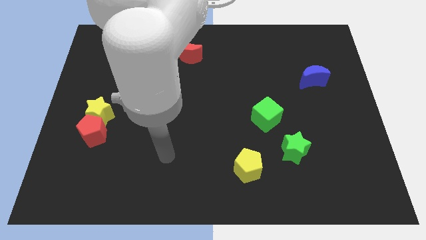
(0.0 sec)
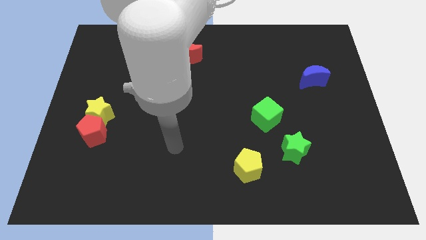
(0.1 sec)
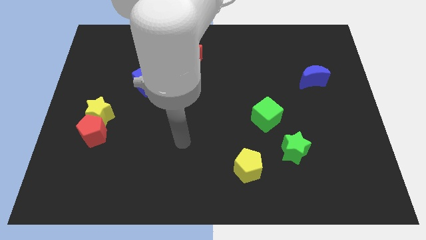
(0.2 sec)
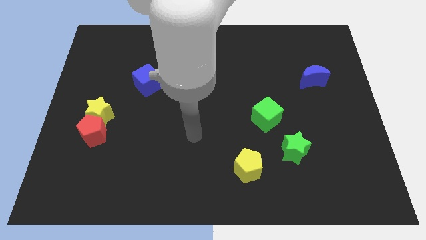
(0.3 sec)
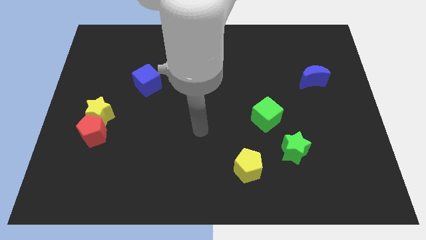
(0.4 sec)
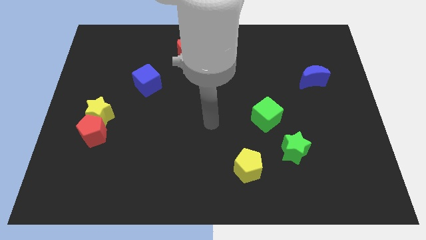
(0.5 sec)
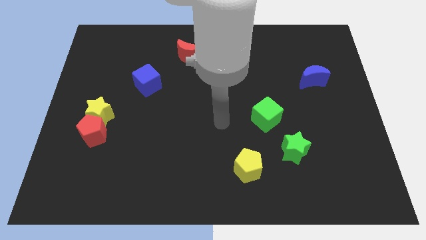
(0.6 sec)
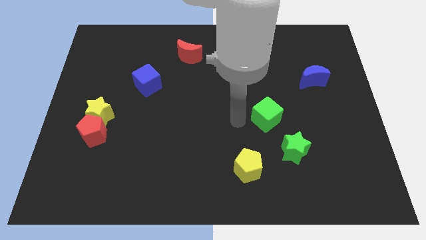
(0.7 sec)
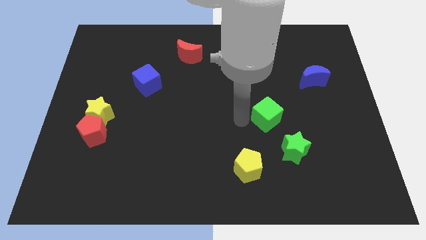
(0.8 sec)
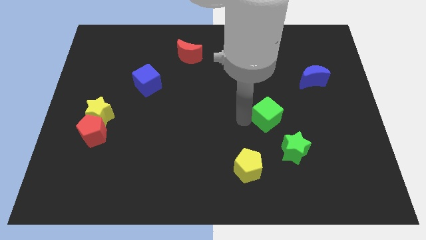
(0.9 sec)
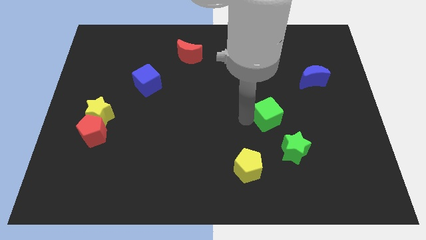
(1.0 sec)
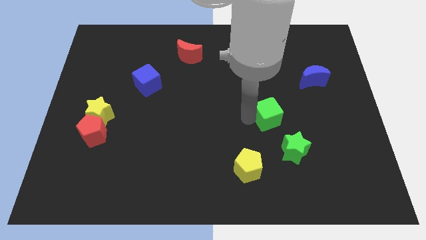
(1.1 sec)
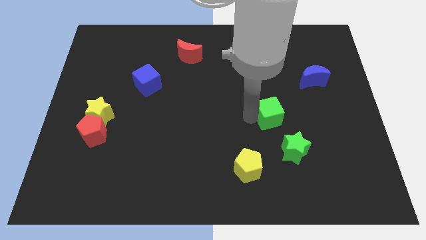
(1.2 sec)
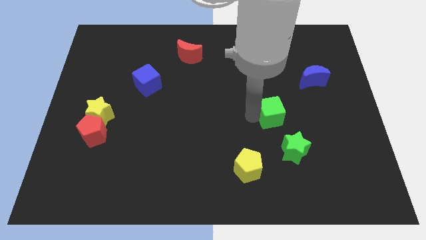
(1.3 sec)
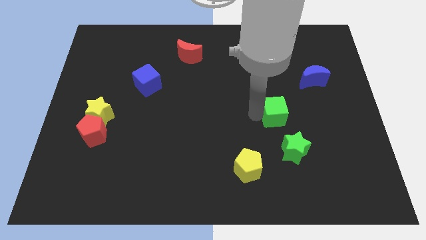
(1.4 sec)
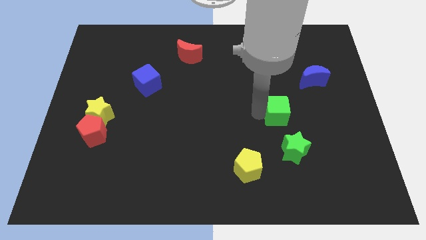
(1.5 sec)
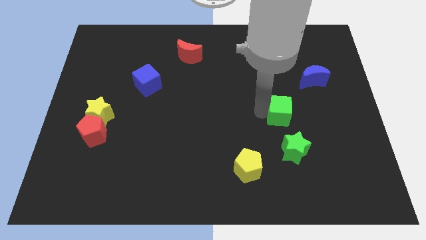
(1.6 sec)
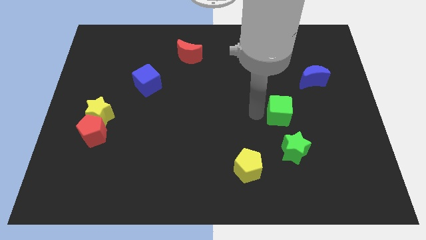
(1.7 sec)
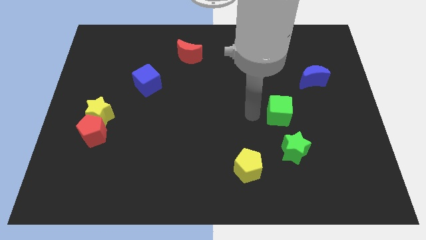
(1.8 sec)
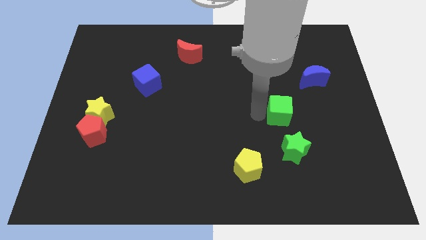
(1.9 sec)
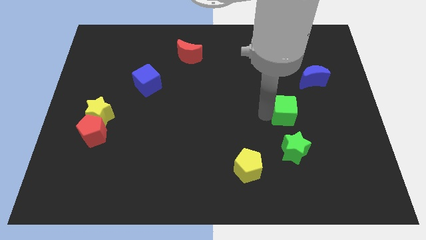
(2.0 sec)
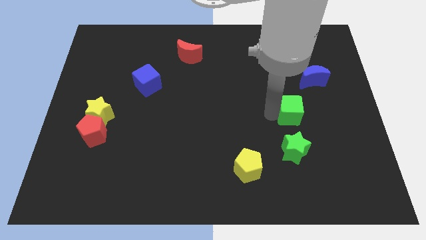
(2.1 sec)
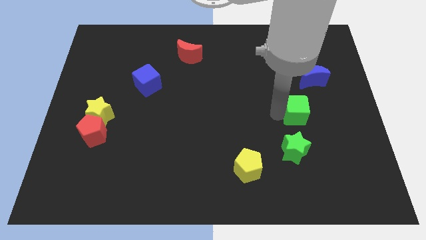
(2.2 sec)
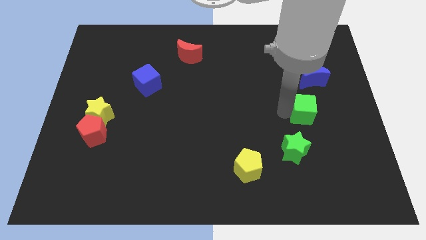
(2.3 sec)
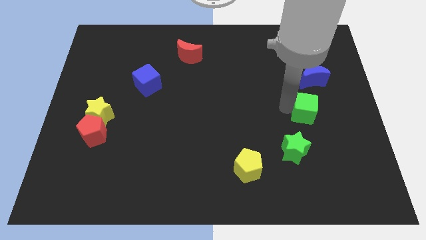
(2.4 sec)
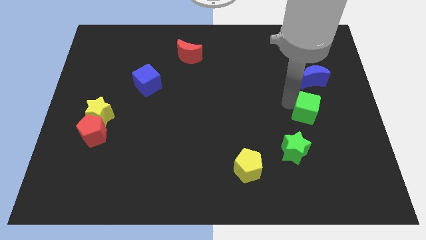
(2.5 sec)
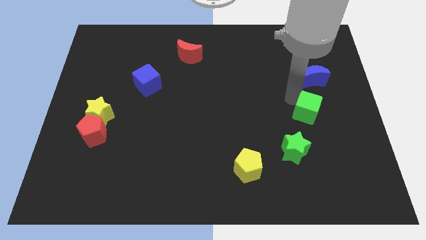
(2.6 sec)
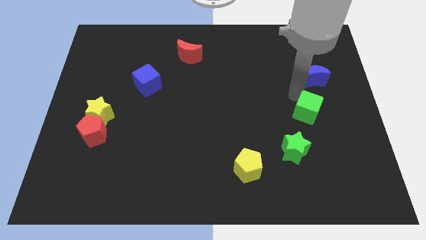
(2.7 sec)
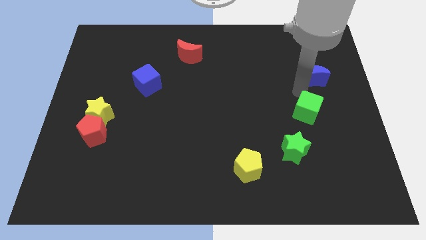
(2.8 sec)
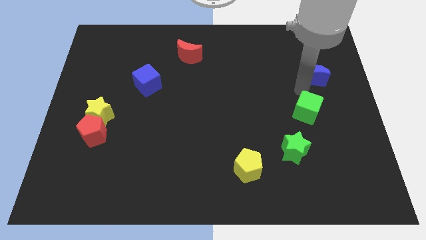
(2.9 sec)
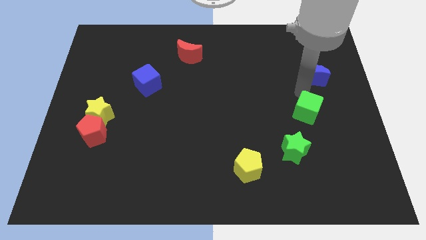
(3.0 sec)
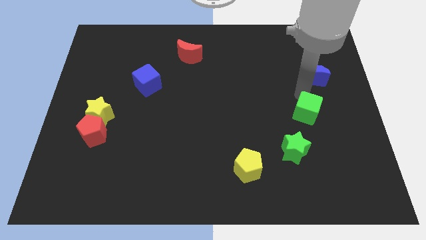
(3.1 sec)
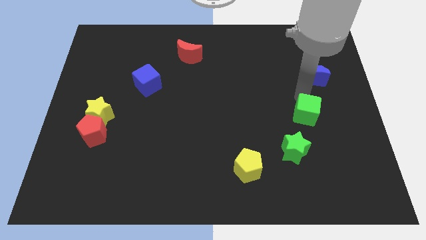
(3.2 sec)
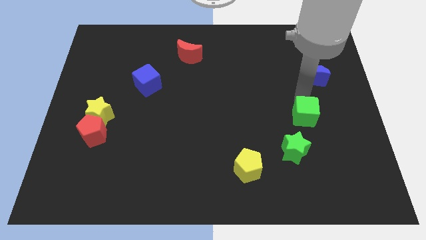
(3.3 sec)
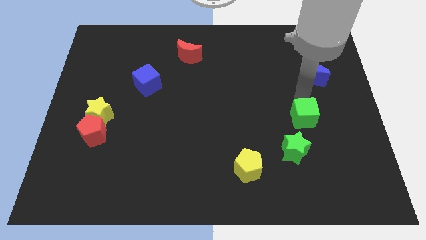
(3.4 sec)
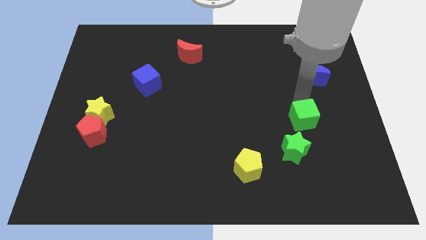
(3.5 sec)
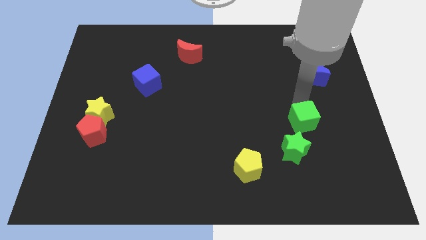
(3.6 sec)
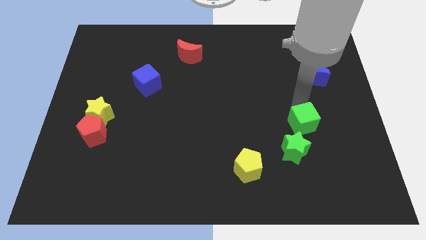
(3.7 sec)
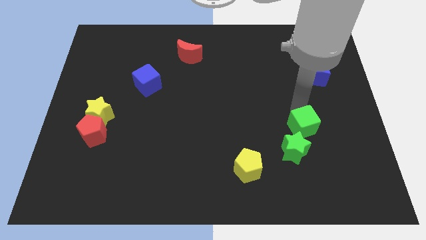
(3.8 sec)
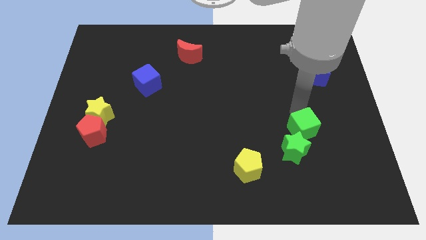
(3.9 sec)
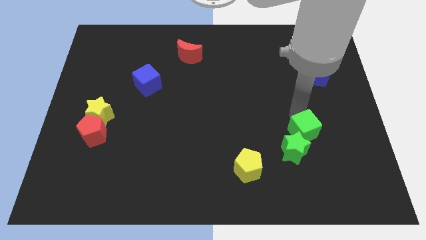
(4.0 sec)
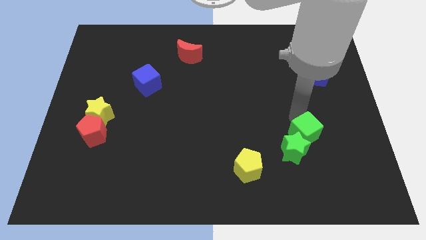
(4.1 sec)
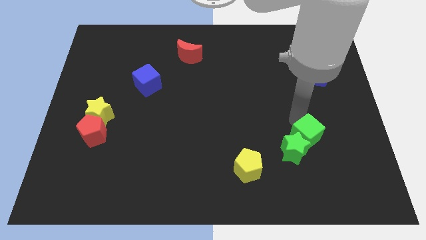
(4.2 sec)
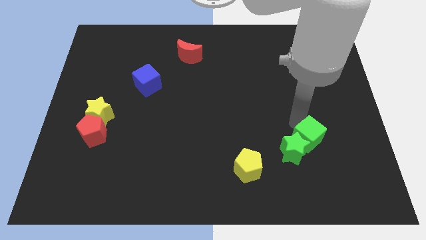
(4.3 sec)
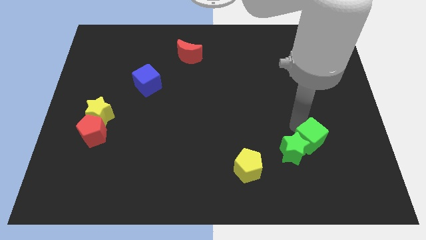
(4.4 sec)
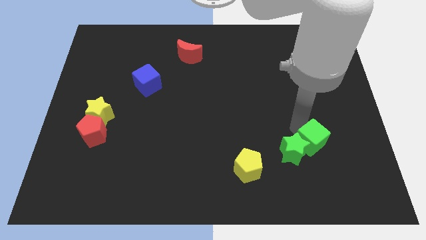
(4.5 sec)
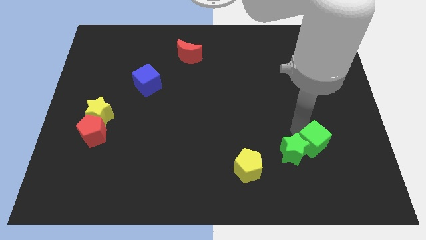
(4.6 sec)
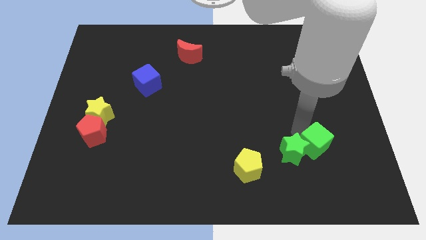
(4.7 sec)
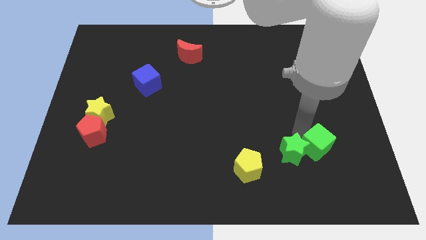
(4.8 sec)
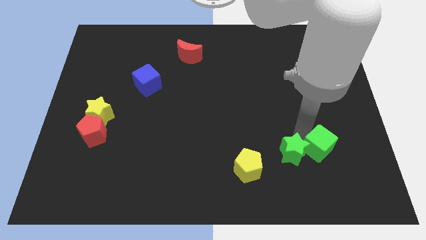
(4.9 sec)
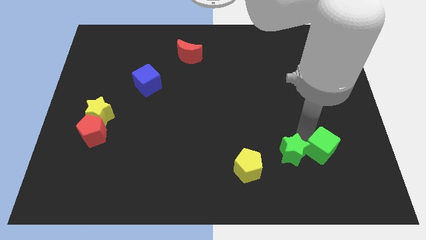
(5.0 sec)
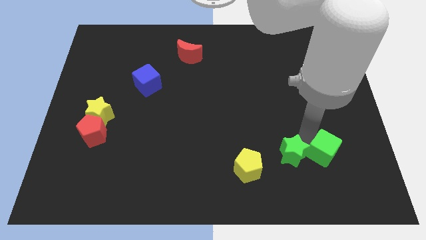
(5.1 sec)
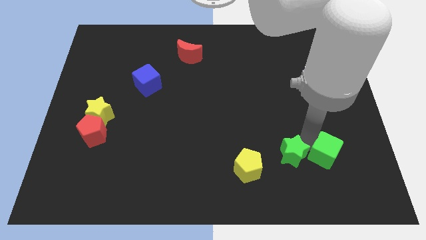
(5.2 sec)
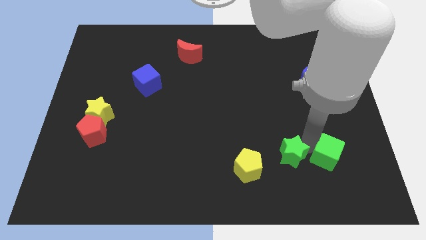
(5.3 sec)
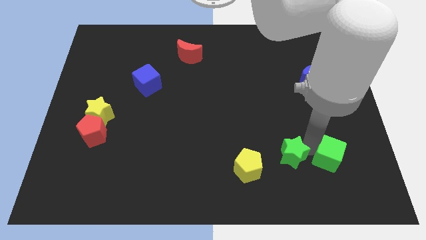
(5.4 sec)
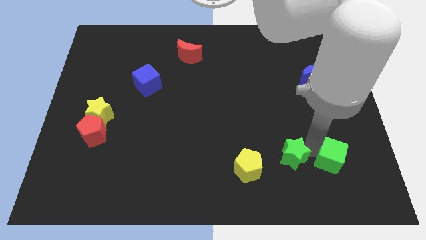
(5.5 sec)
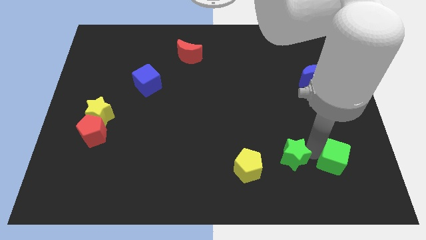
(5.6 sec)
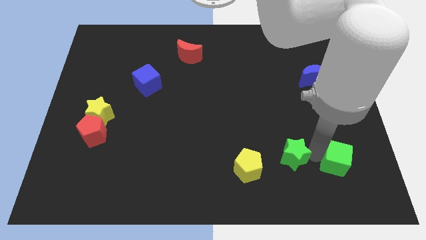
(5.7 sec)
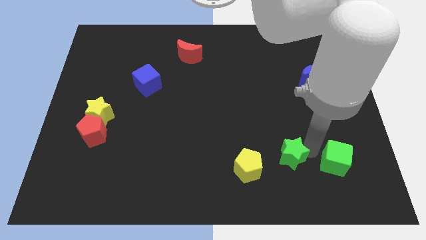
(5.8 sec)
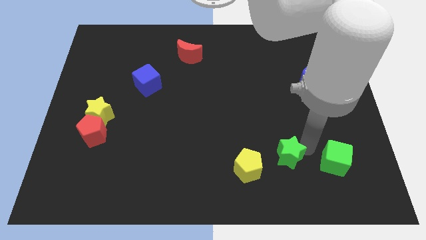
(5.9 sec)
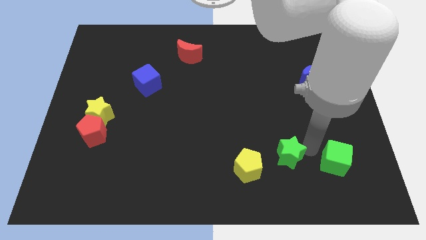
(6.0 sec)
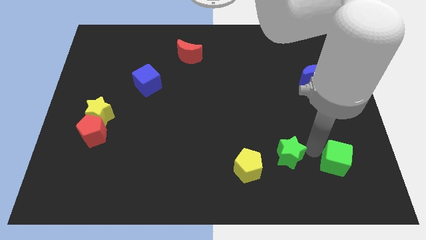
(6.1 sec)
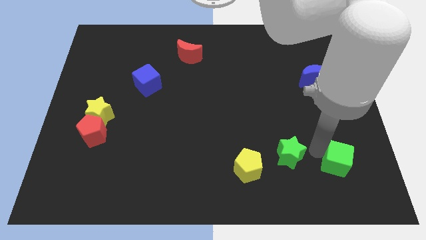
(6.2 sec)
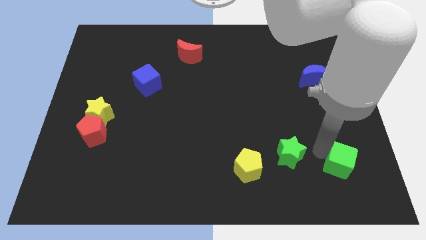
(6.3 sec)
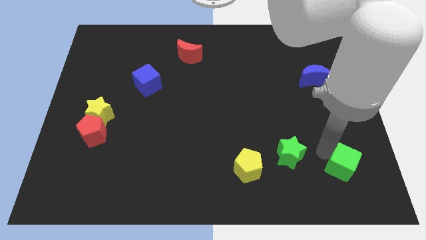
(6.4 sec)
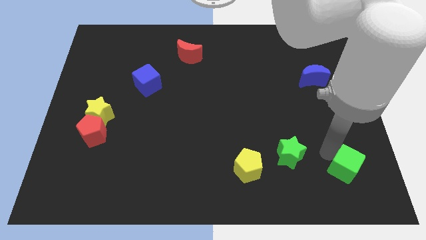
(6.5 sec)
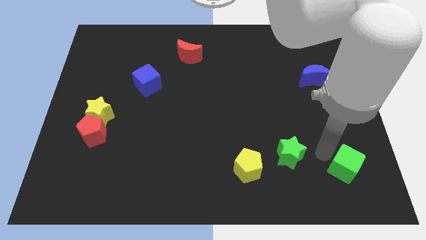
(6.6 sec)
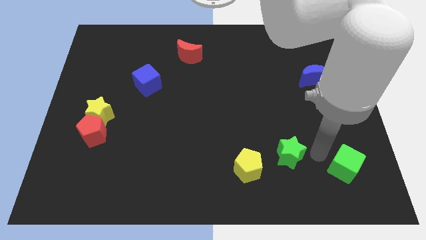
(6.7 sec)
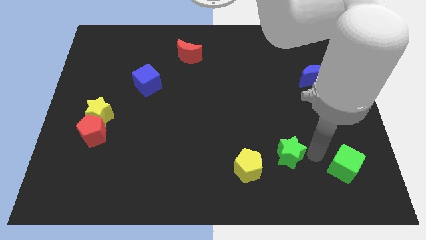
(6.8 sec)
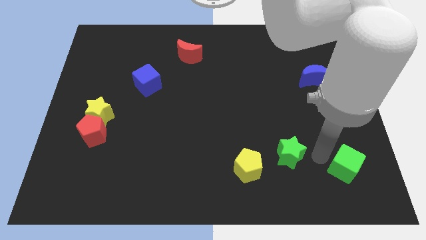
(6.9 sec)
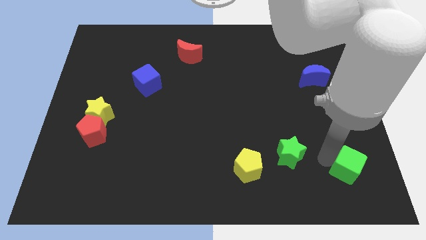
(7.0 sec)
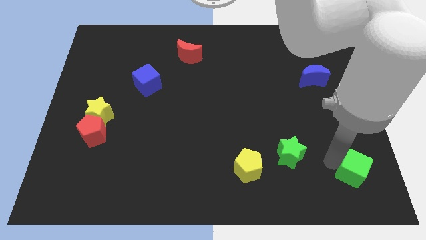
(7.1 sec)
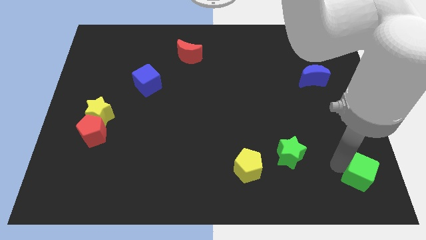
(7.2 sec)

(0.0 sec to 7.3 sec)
push the green cube to the bottom right corner

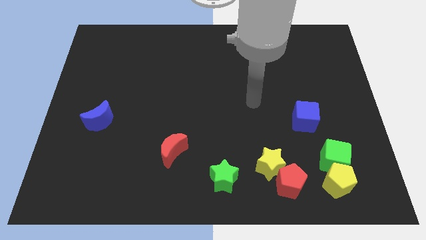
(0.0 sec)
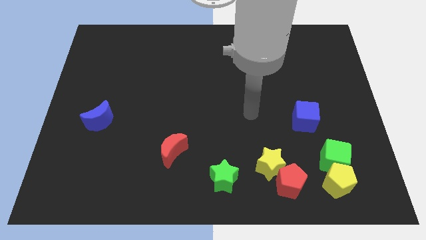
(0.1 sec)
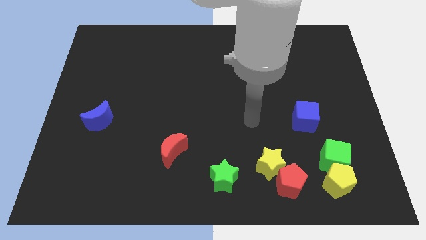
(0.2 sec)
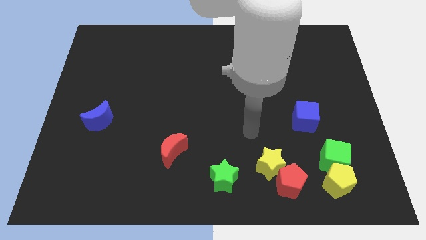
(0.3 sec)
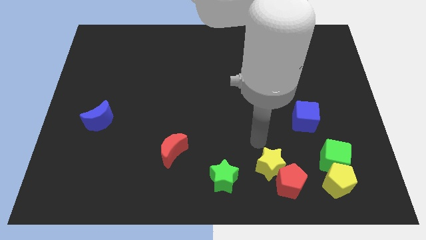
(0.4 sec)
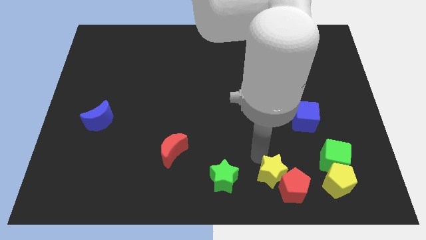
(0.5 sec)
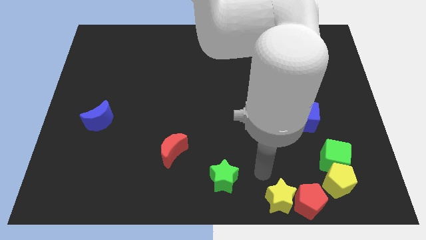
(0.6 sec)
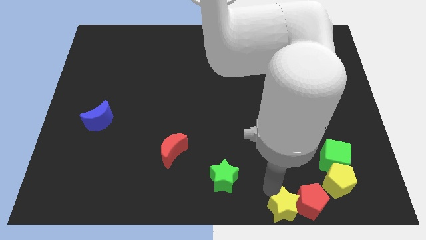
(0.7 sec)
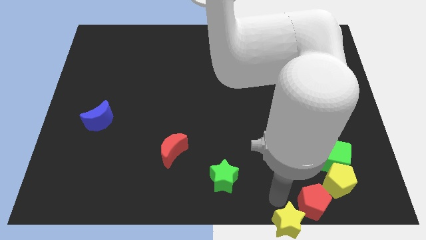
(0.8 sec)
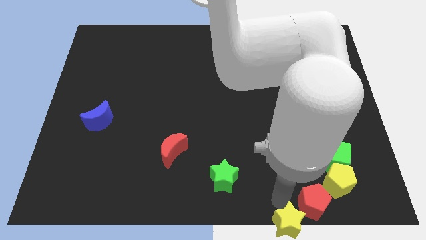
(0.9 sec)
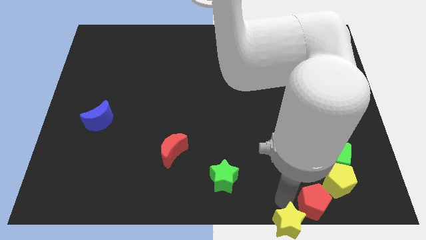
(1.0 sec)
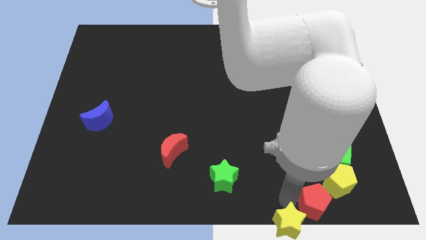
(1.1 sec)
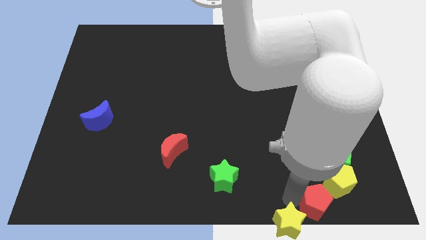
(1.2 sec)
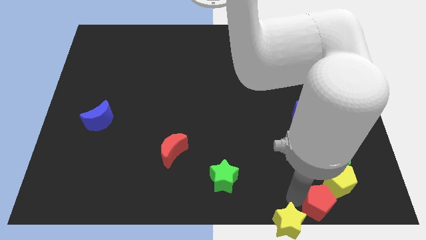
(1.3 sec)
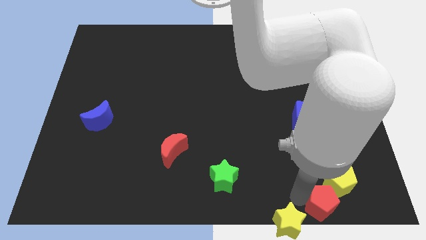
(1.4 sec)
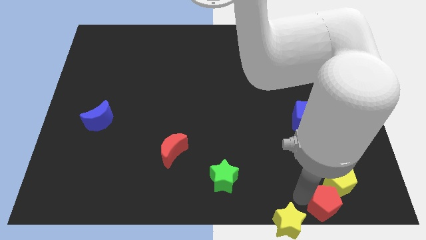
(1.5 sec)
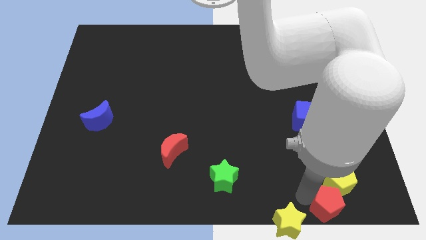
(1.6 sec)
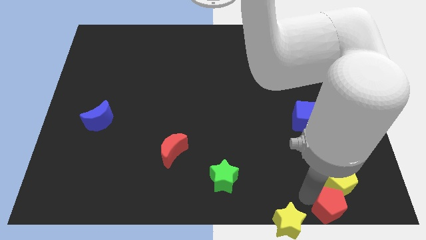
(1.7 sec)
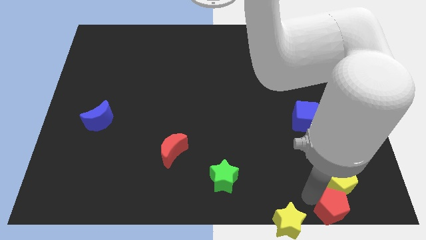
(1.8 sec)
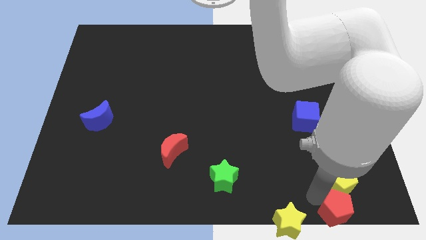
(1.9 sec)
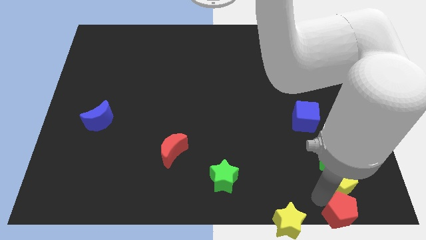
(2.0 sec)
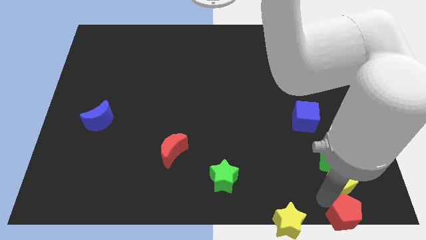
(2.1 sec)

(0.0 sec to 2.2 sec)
move the red pentagon to the bottom right
